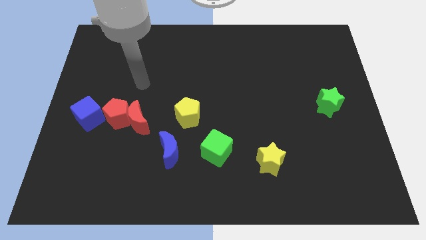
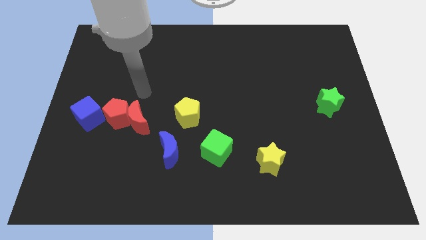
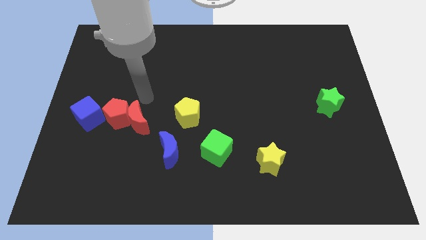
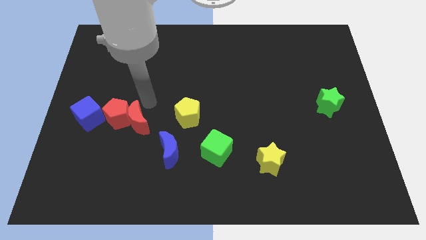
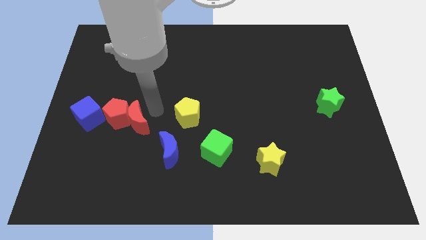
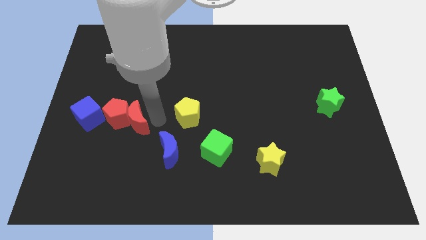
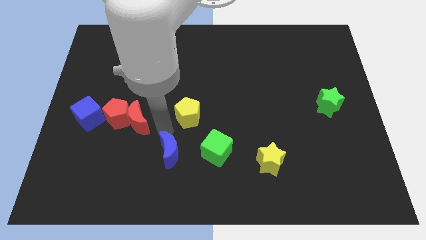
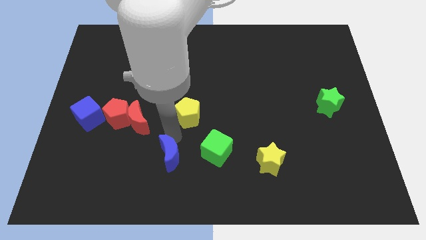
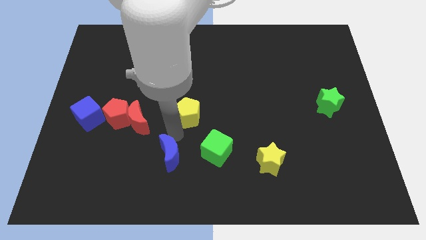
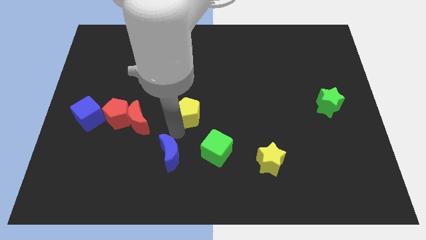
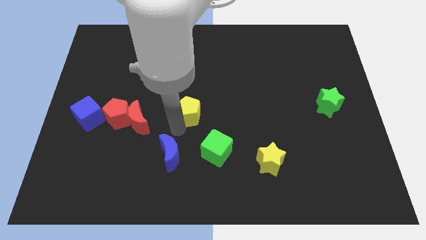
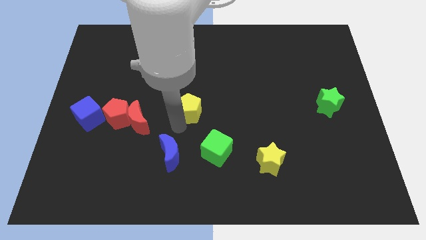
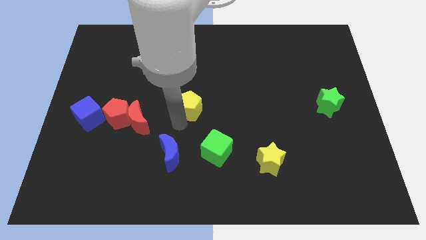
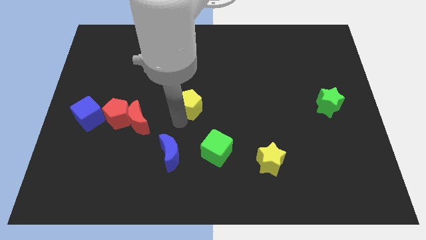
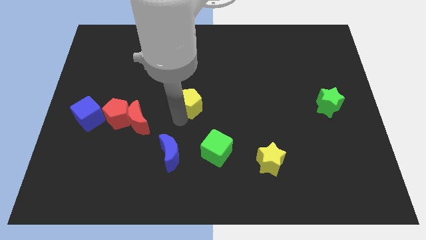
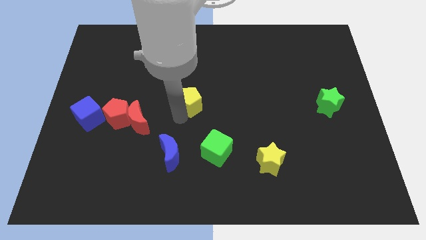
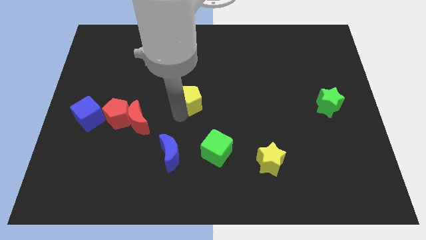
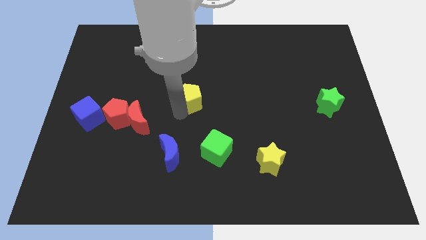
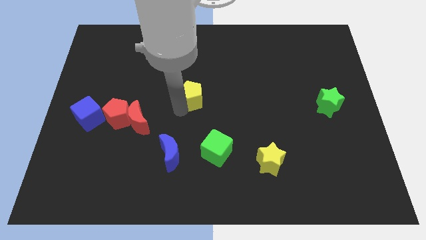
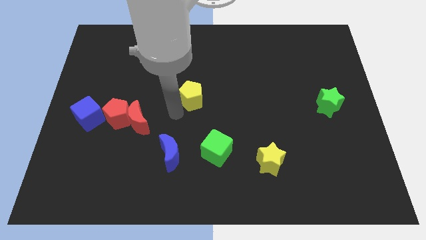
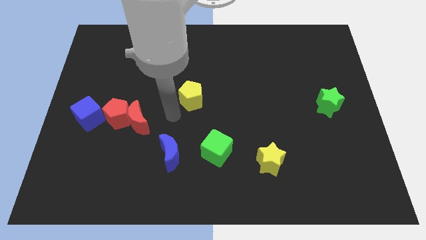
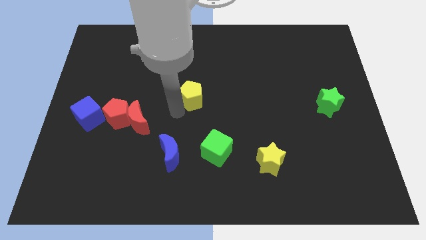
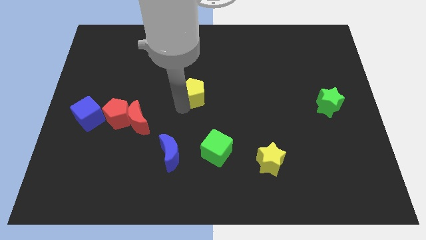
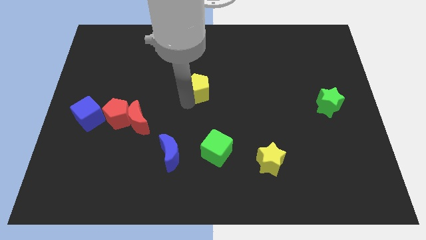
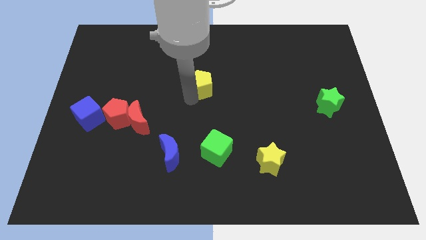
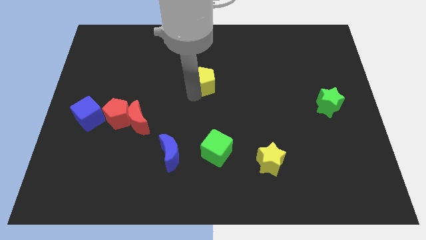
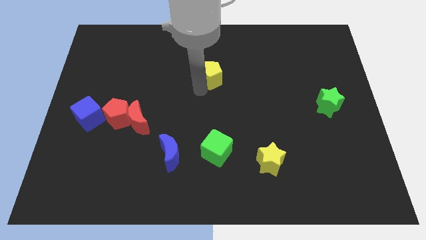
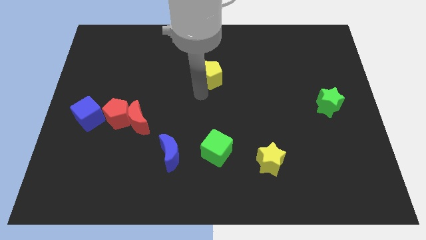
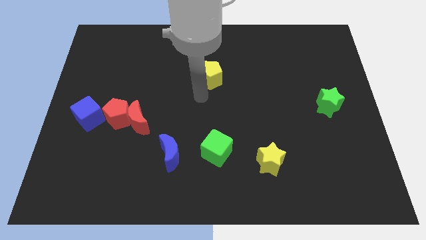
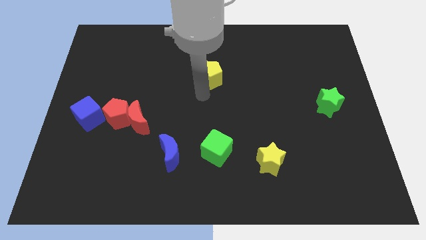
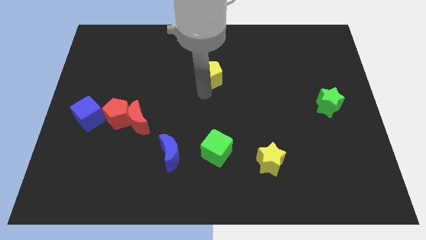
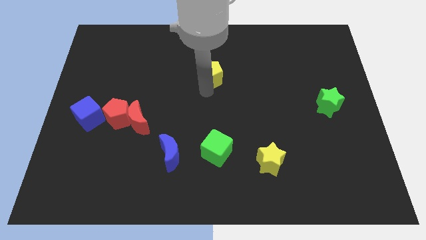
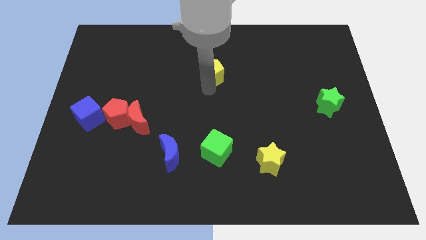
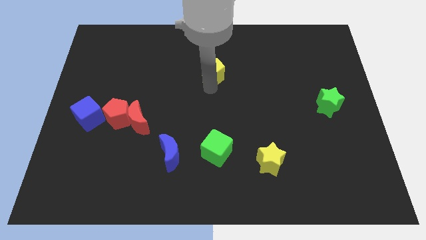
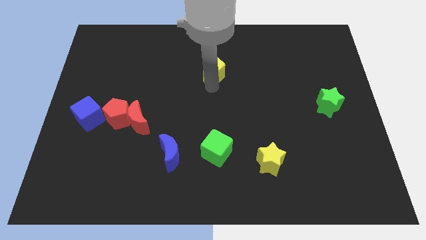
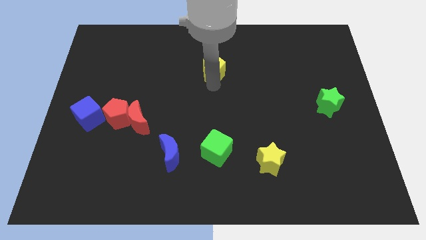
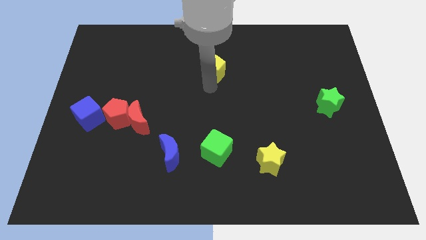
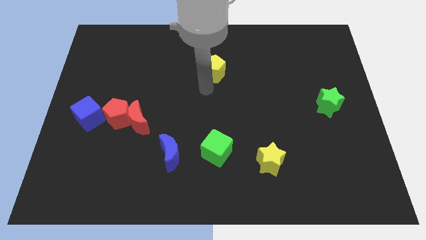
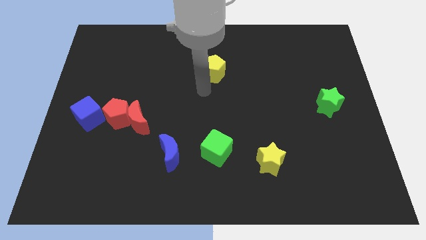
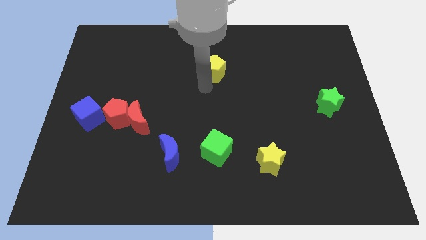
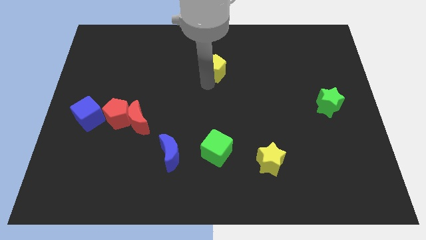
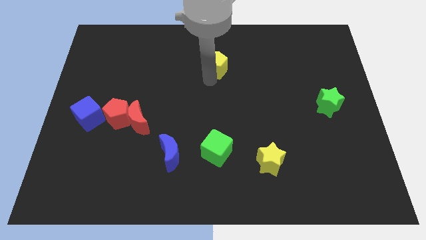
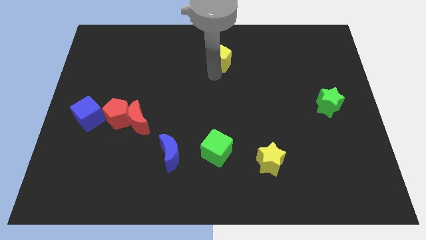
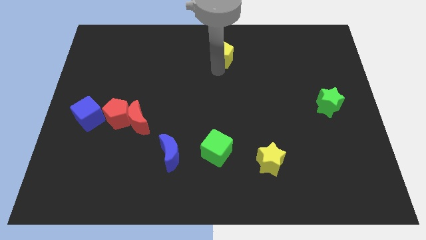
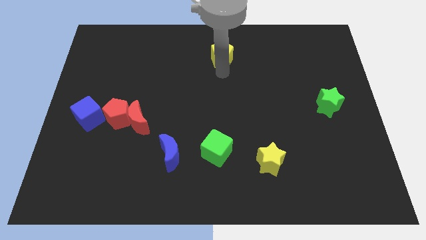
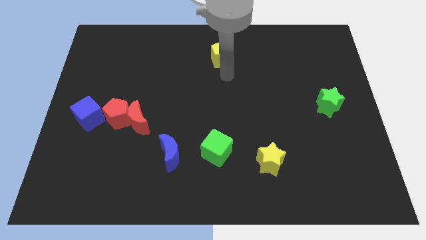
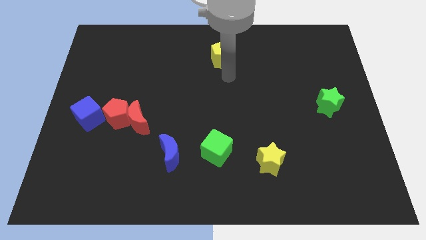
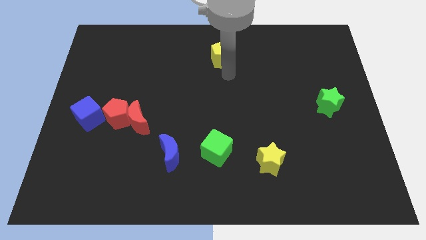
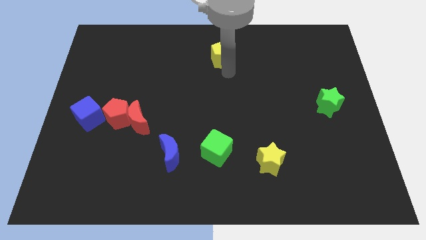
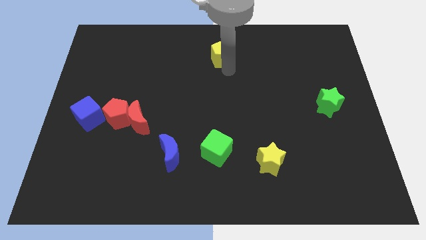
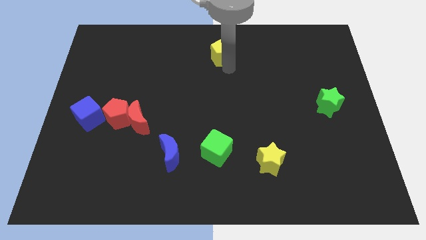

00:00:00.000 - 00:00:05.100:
slide the yellow pentagon to the top

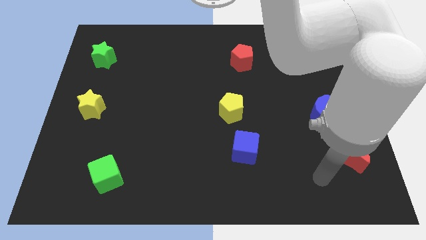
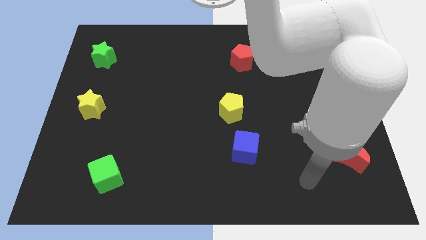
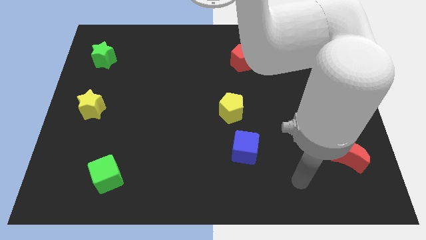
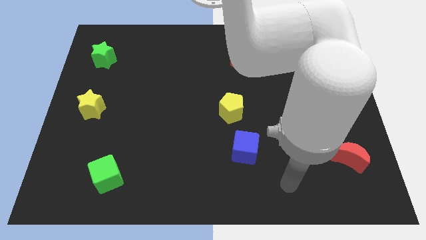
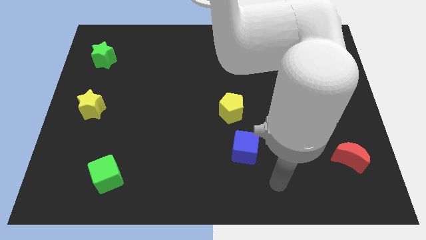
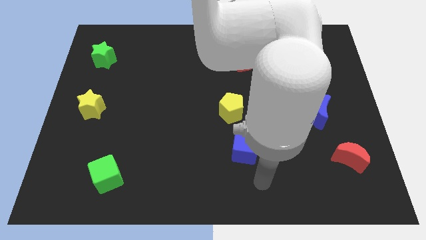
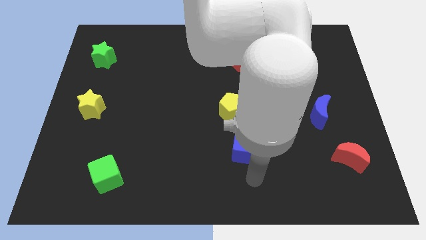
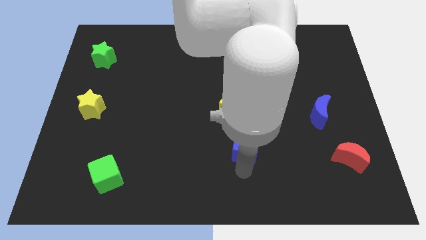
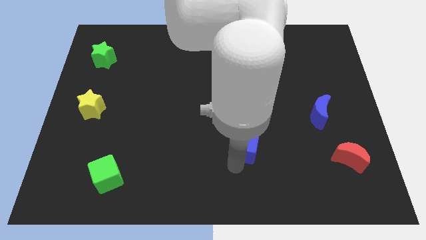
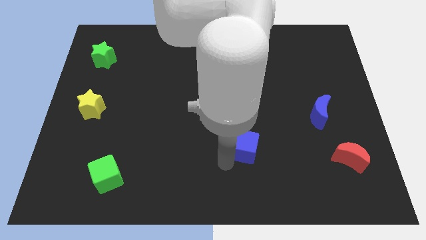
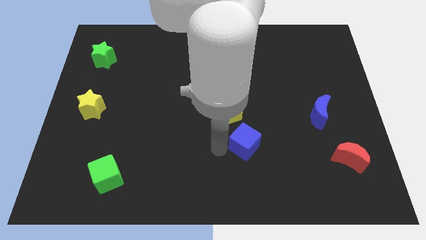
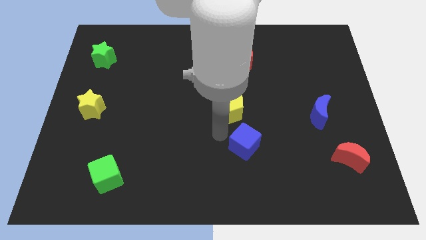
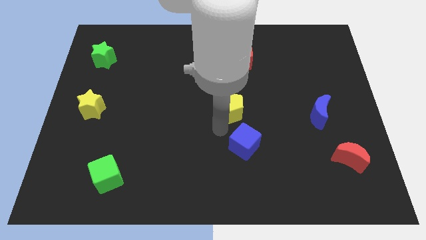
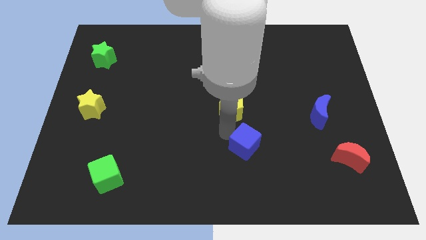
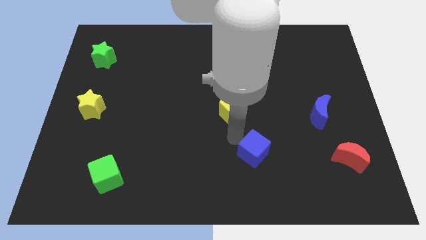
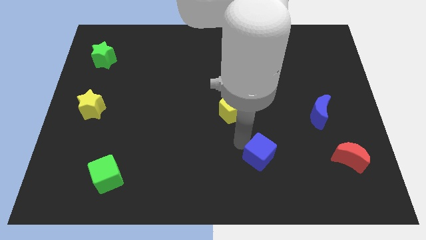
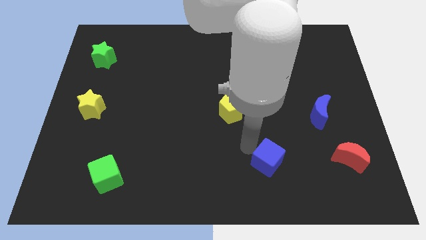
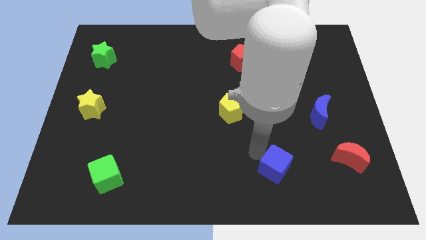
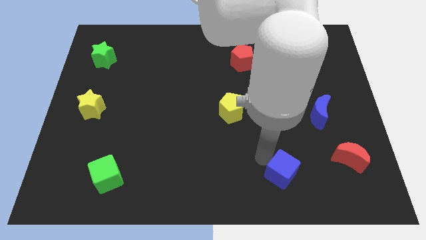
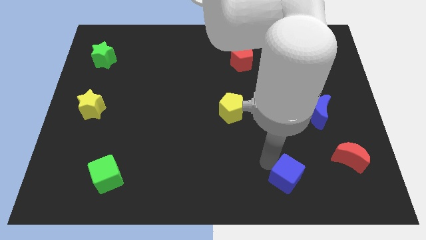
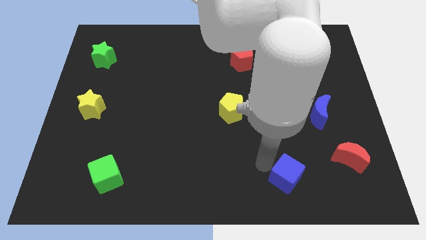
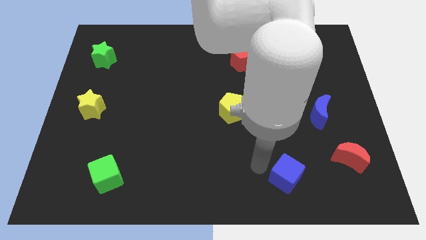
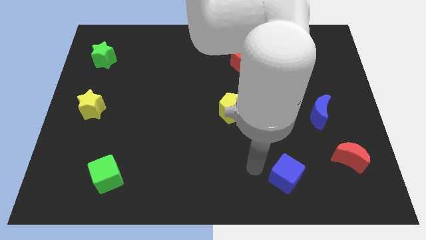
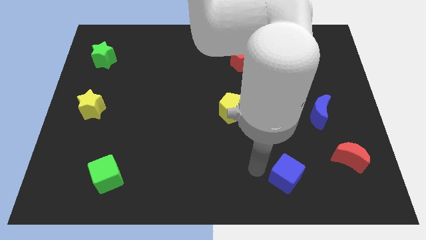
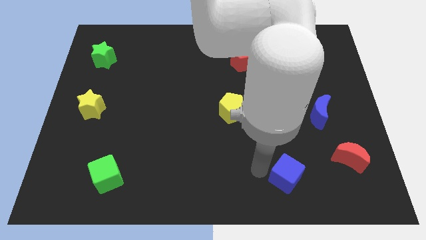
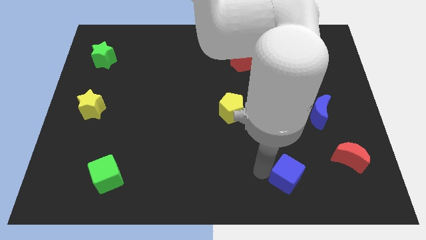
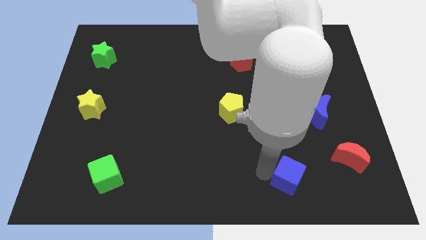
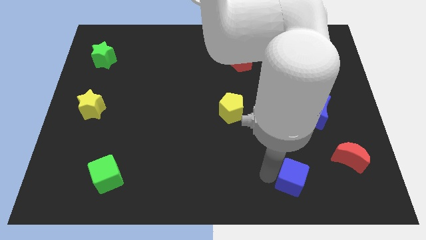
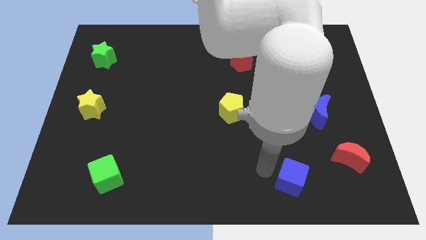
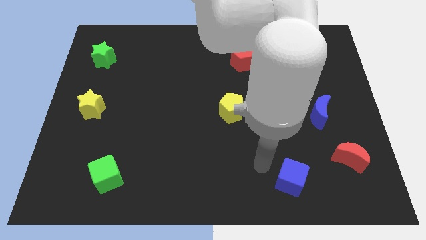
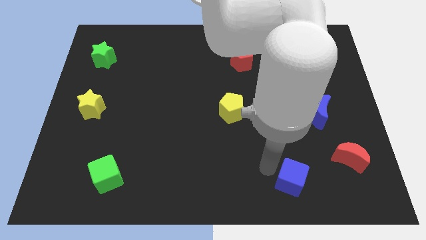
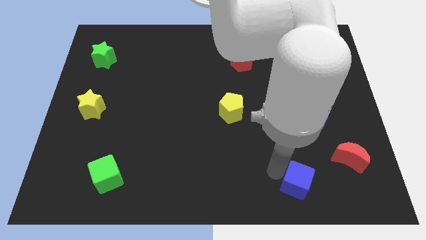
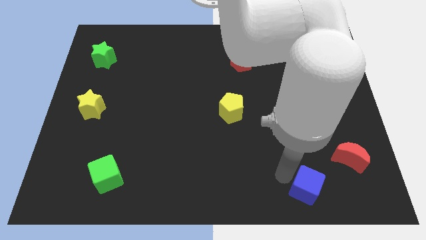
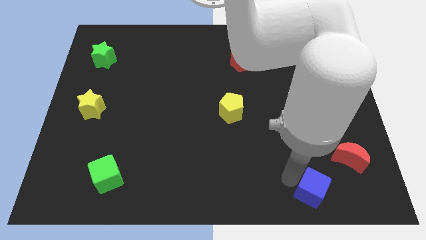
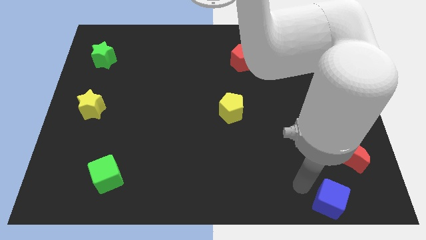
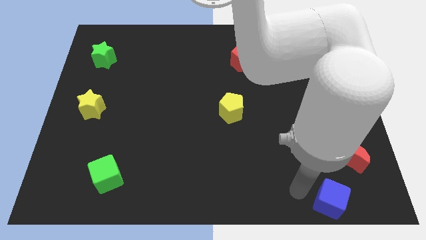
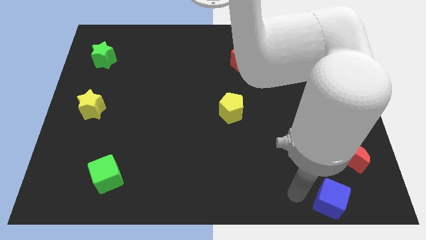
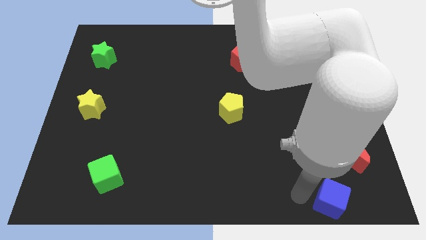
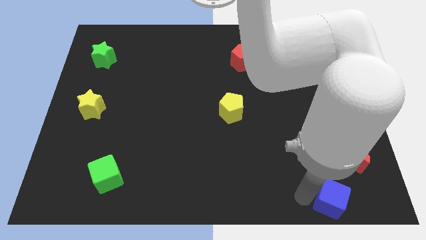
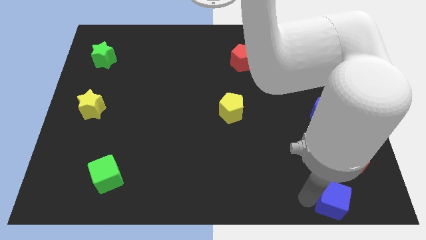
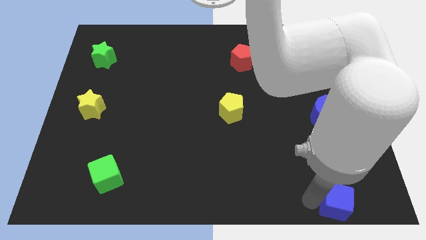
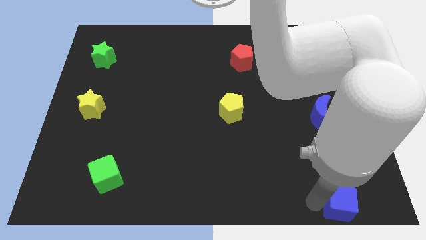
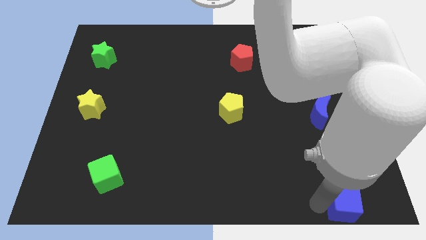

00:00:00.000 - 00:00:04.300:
push the blue cube to the lower right corner
